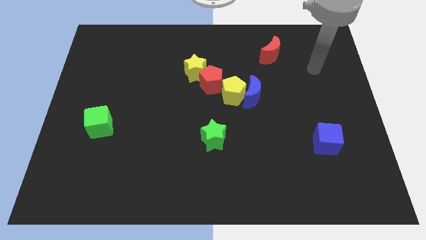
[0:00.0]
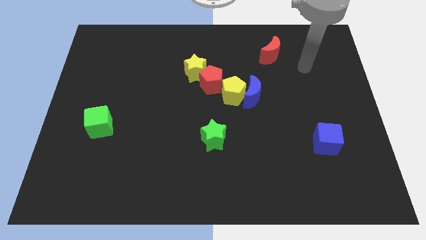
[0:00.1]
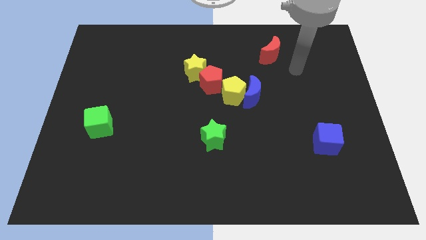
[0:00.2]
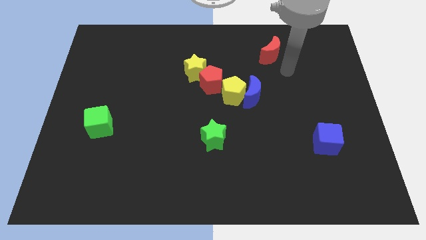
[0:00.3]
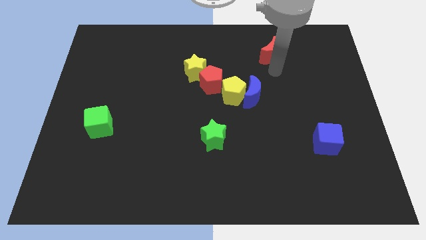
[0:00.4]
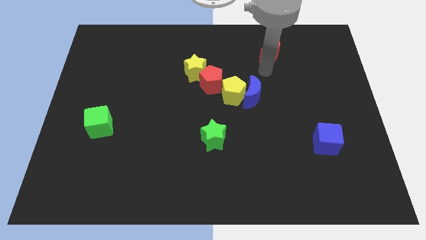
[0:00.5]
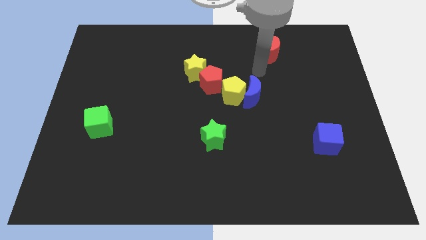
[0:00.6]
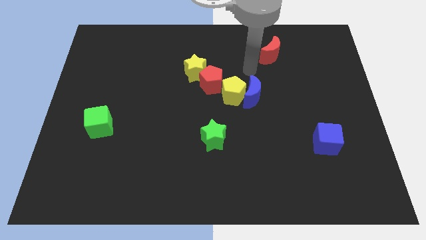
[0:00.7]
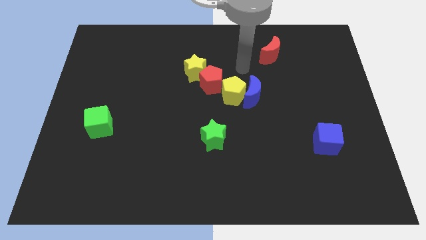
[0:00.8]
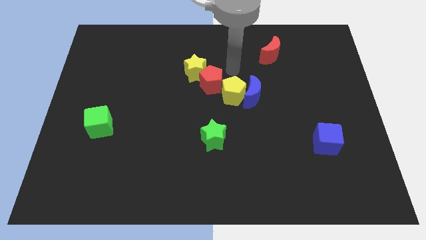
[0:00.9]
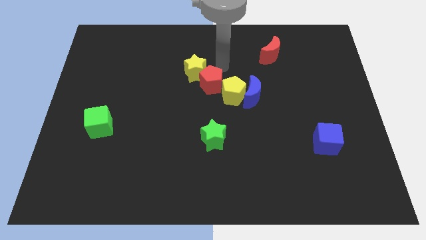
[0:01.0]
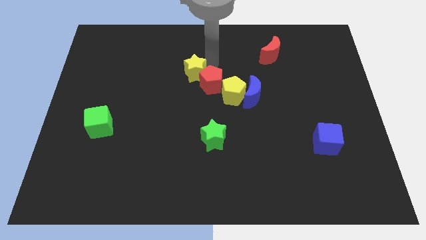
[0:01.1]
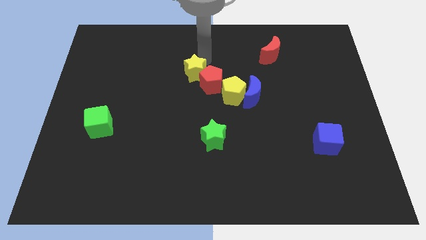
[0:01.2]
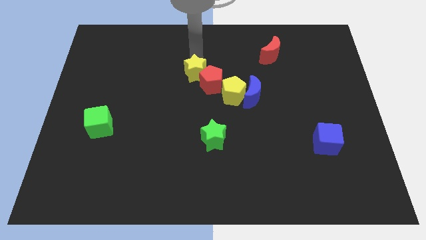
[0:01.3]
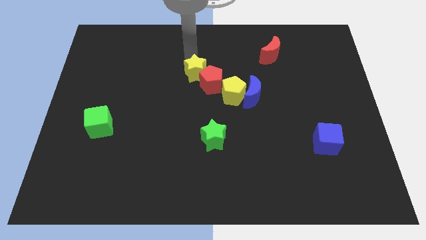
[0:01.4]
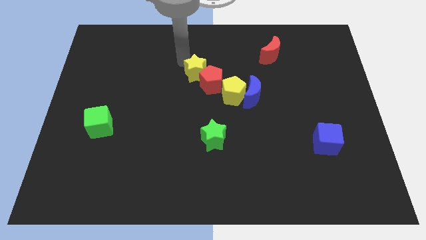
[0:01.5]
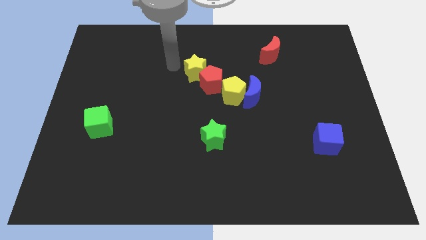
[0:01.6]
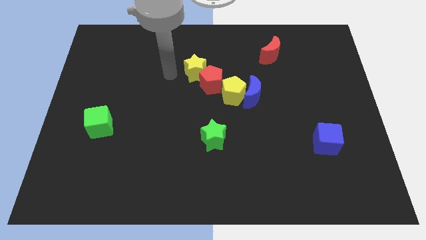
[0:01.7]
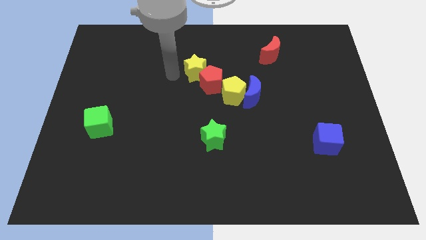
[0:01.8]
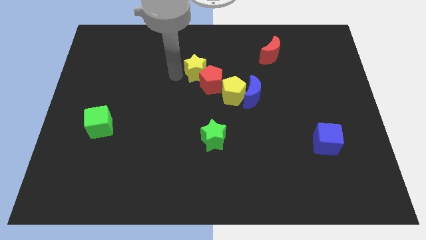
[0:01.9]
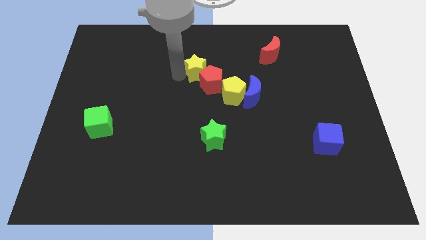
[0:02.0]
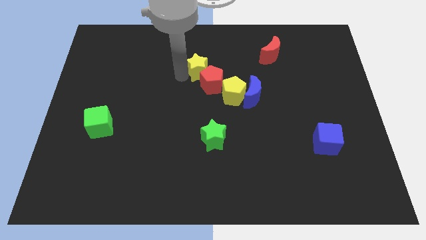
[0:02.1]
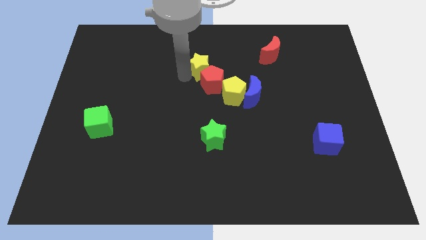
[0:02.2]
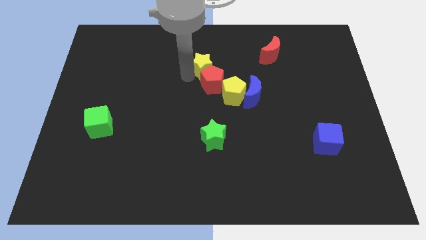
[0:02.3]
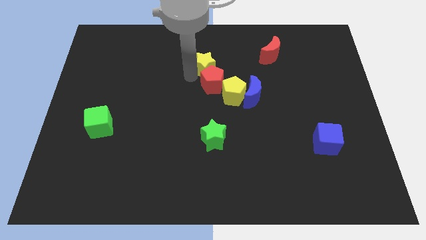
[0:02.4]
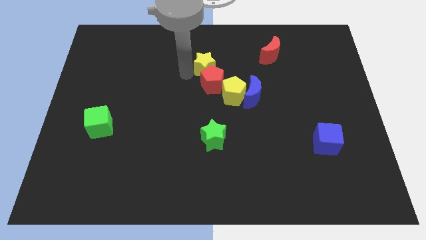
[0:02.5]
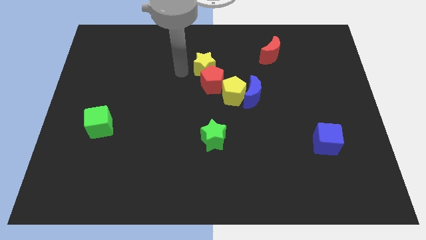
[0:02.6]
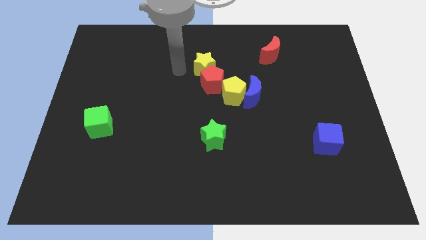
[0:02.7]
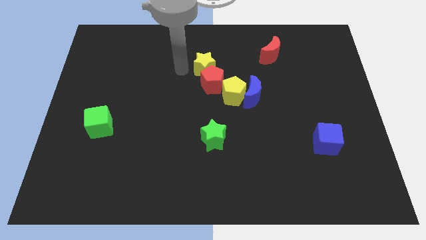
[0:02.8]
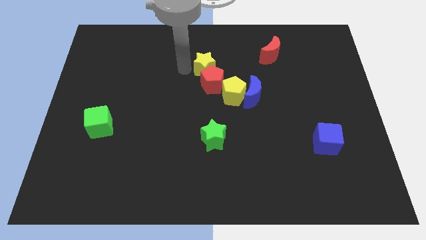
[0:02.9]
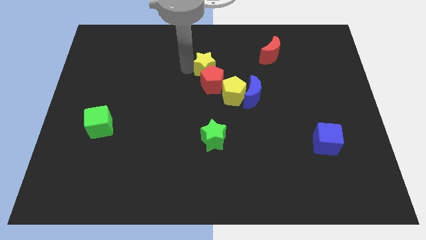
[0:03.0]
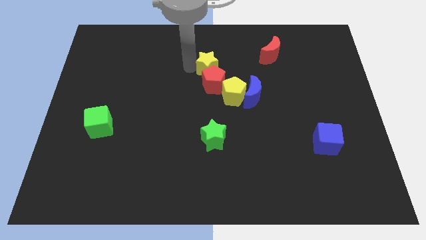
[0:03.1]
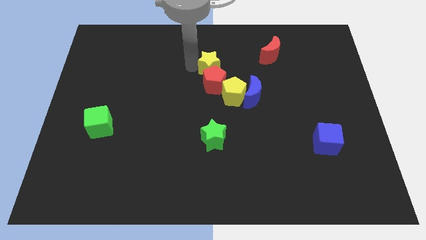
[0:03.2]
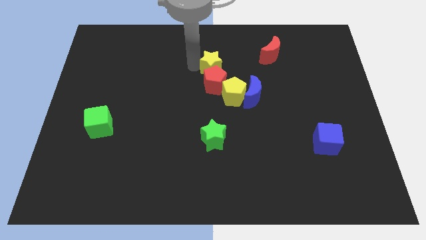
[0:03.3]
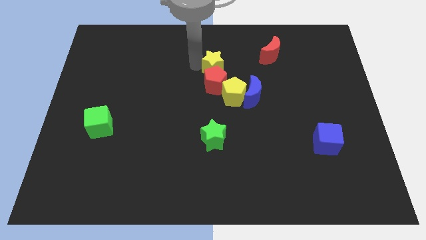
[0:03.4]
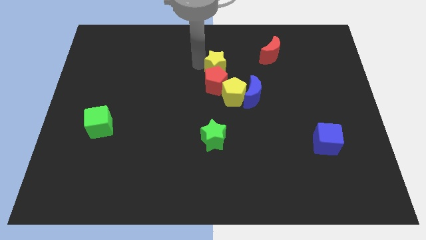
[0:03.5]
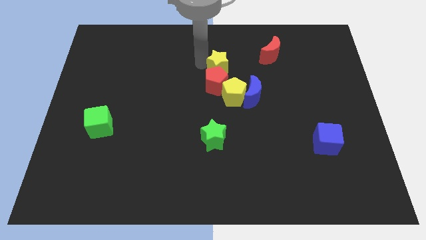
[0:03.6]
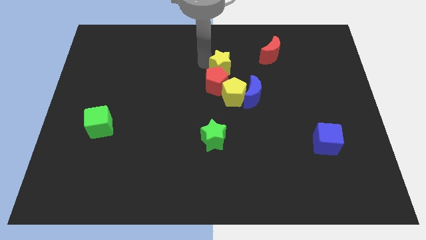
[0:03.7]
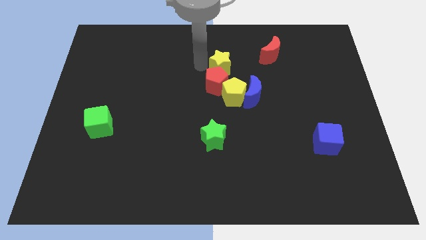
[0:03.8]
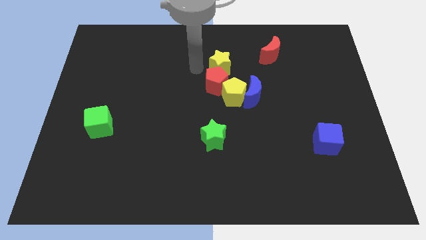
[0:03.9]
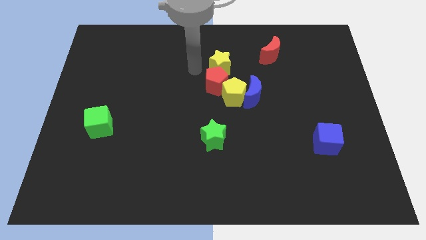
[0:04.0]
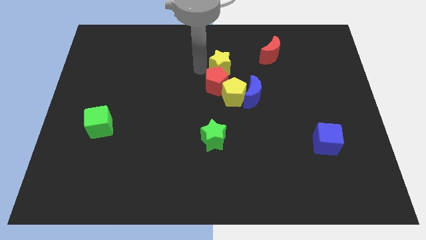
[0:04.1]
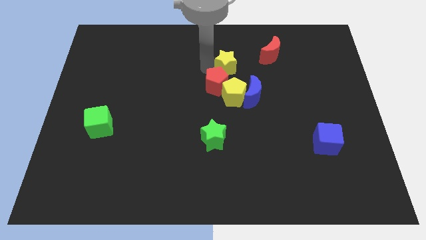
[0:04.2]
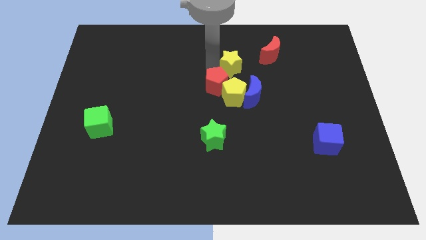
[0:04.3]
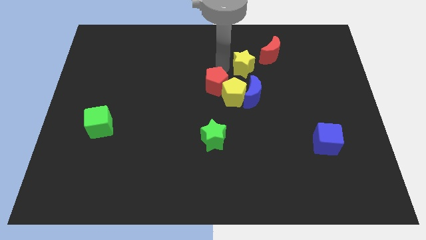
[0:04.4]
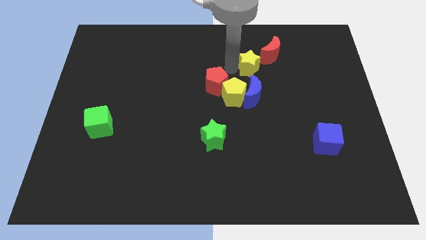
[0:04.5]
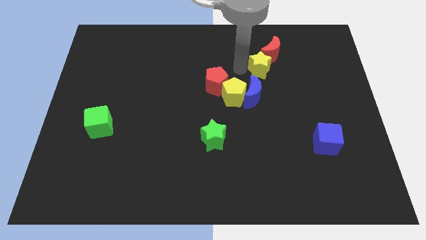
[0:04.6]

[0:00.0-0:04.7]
move the yellow star towards the red moon

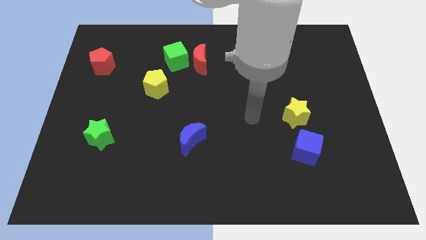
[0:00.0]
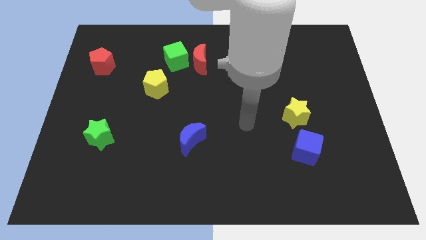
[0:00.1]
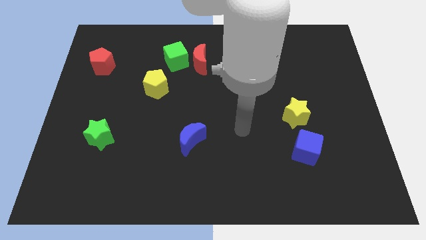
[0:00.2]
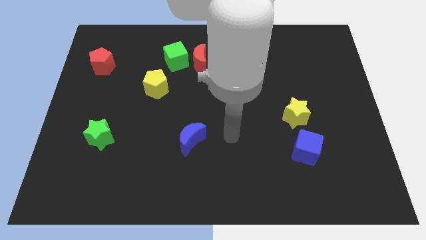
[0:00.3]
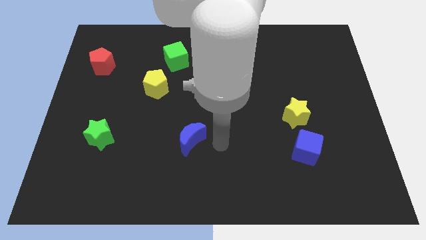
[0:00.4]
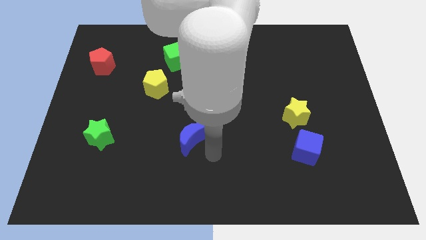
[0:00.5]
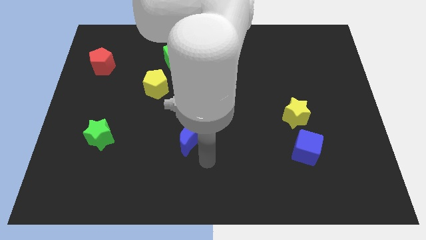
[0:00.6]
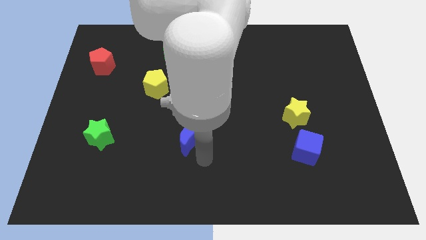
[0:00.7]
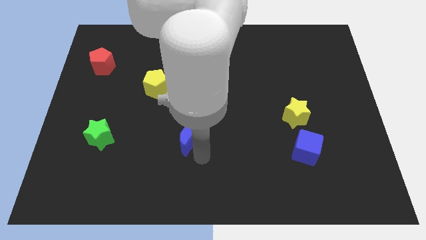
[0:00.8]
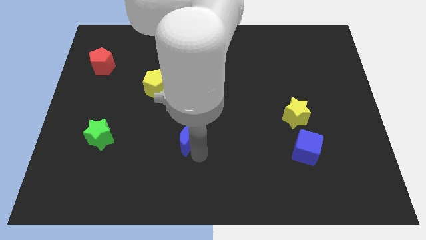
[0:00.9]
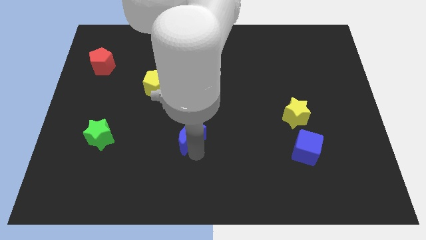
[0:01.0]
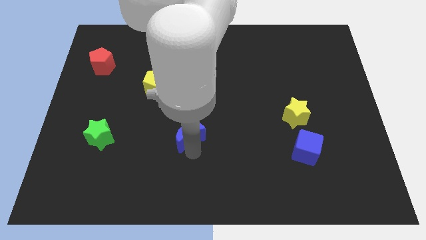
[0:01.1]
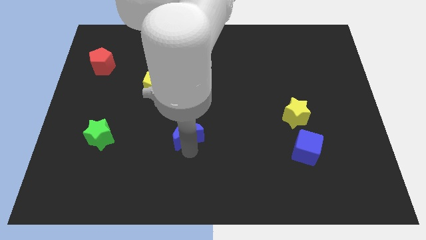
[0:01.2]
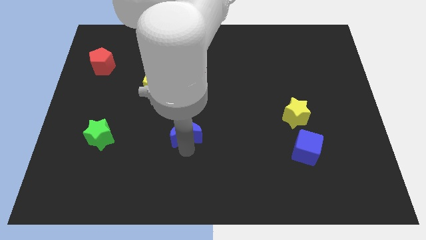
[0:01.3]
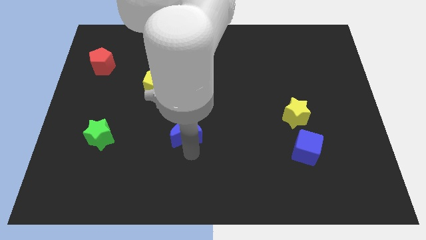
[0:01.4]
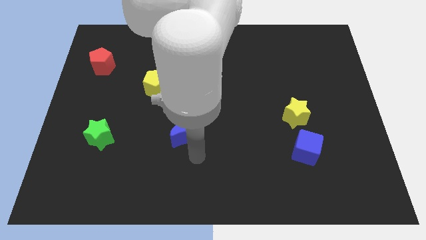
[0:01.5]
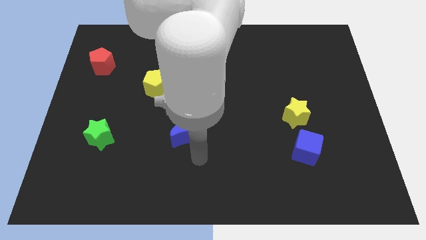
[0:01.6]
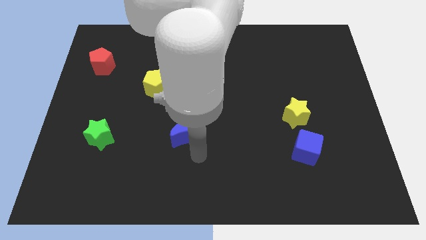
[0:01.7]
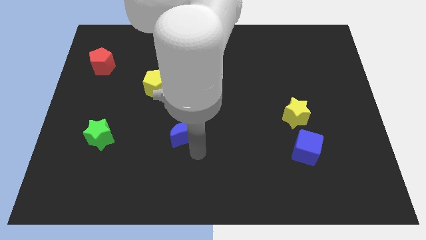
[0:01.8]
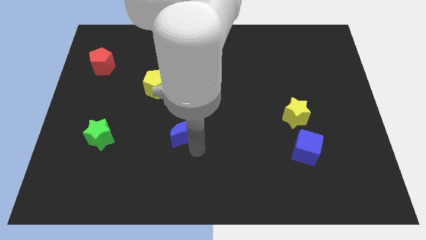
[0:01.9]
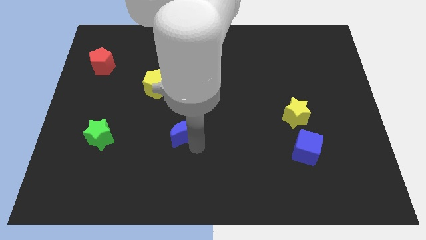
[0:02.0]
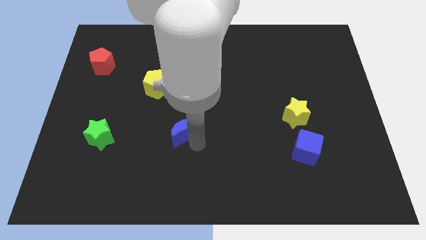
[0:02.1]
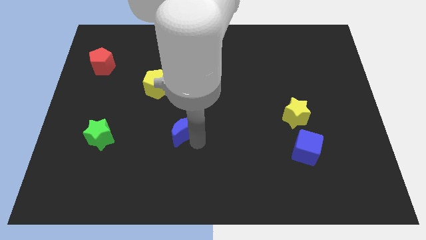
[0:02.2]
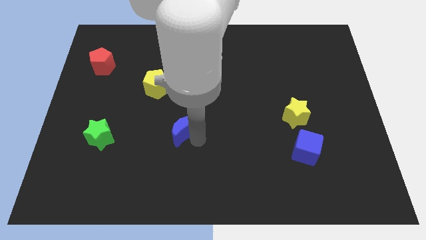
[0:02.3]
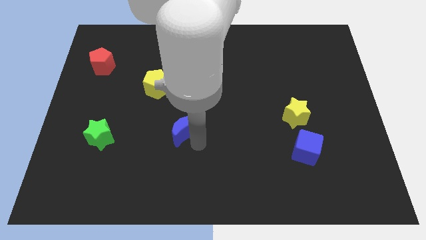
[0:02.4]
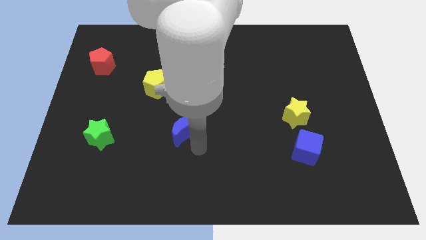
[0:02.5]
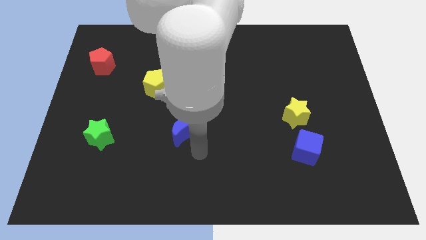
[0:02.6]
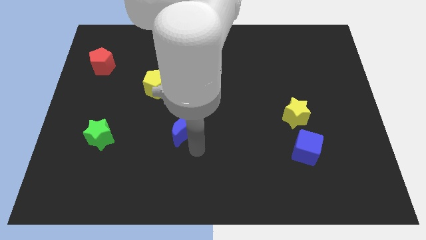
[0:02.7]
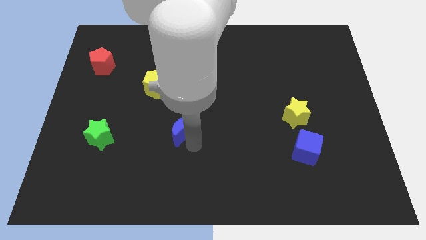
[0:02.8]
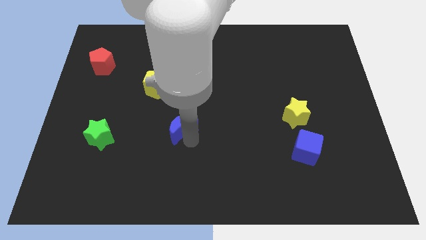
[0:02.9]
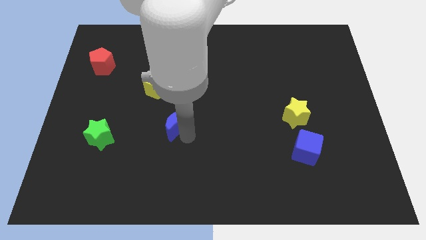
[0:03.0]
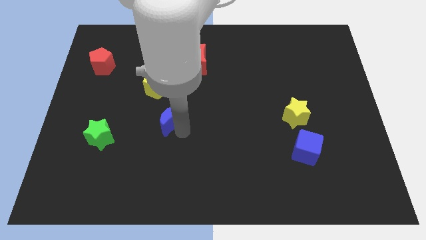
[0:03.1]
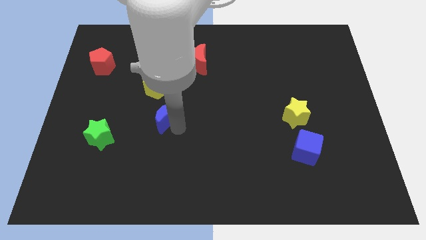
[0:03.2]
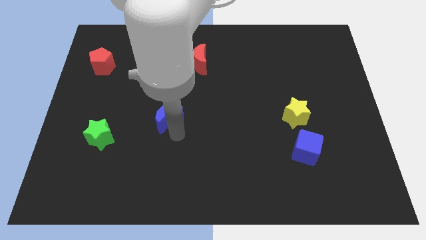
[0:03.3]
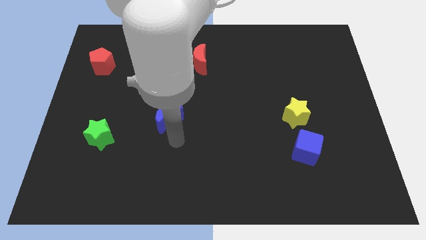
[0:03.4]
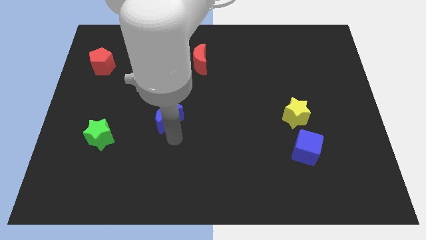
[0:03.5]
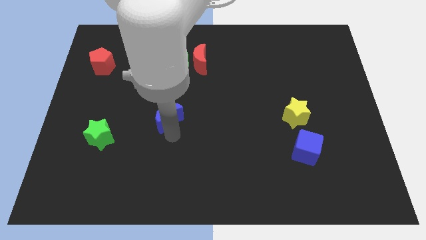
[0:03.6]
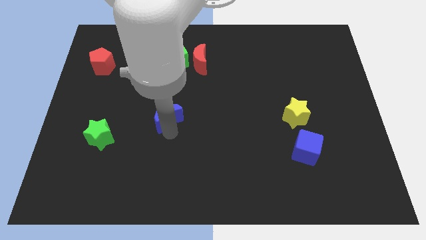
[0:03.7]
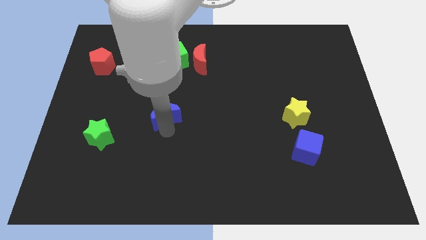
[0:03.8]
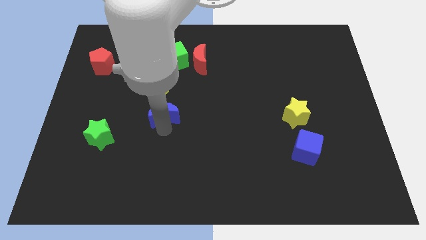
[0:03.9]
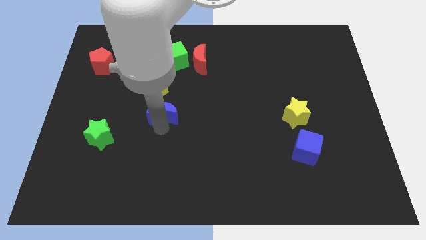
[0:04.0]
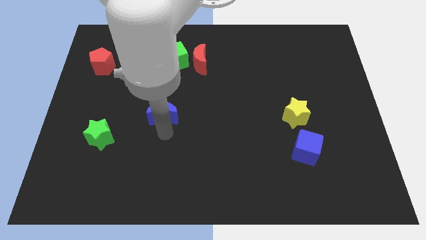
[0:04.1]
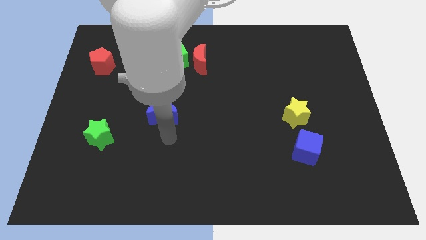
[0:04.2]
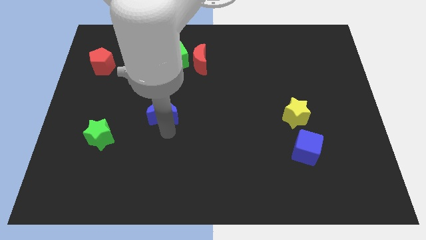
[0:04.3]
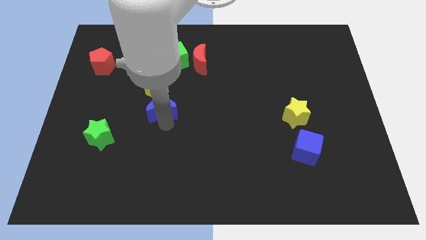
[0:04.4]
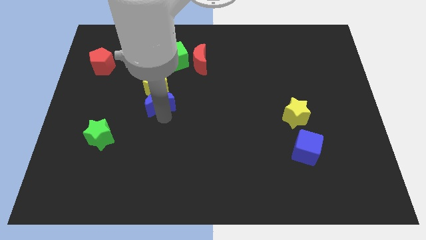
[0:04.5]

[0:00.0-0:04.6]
push the blue moon close to the yellow pentagon
